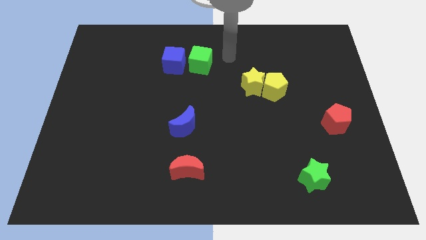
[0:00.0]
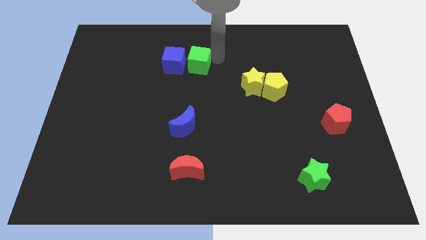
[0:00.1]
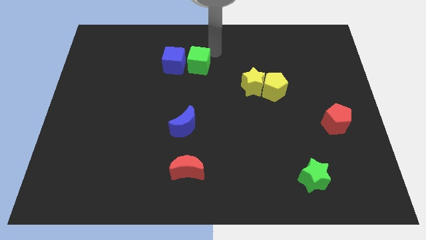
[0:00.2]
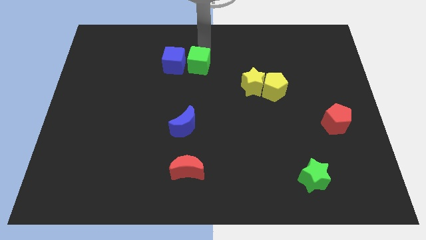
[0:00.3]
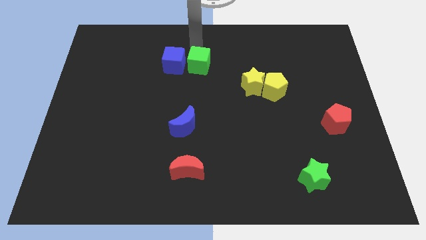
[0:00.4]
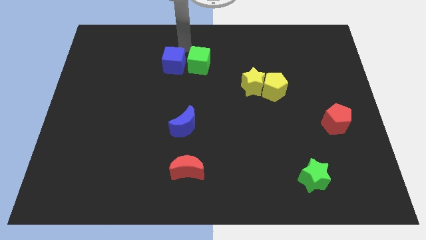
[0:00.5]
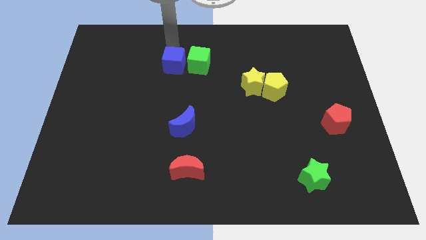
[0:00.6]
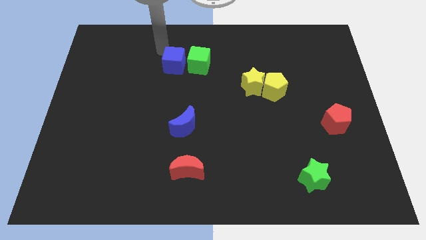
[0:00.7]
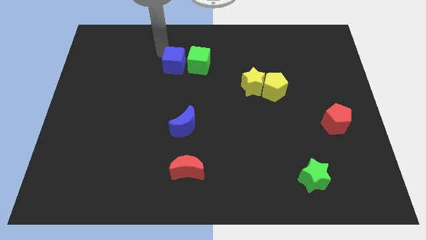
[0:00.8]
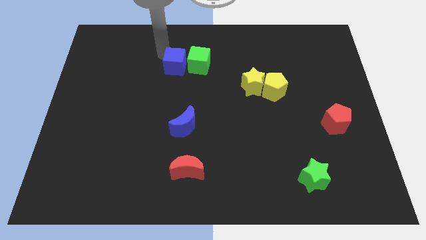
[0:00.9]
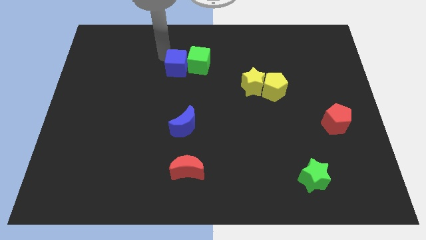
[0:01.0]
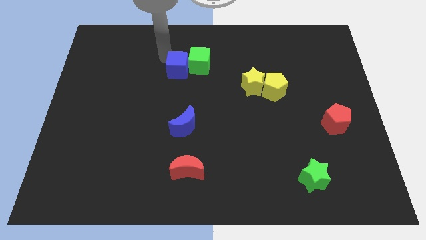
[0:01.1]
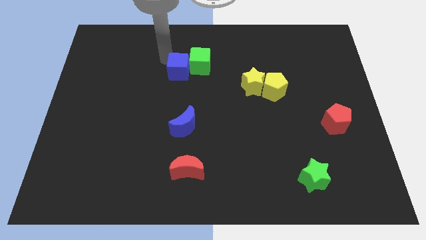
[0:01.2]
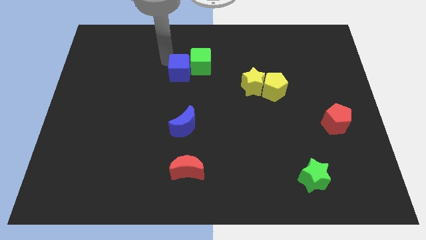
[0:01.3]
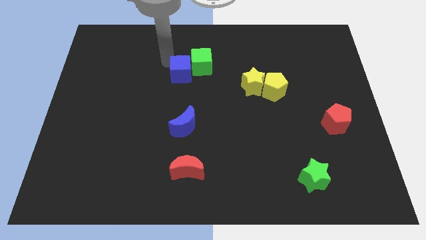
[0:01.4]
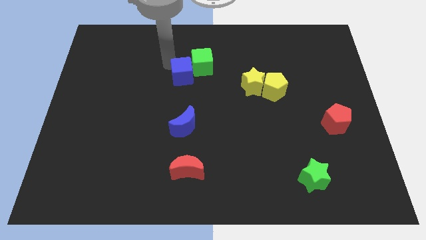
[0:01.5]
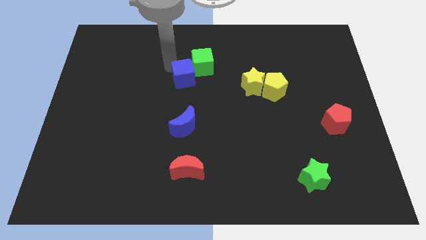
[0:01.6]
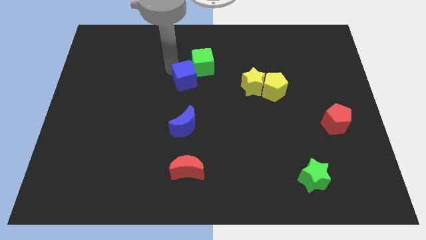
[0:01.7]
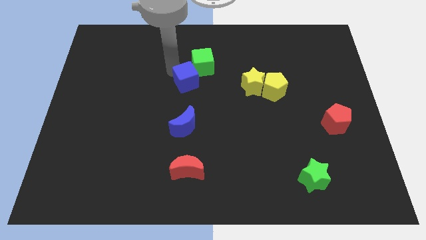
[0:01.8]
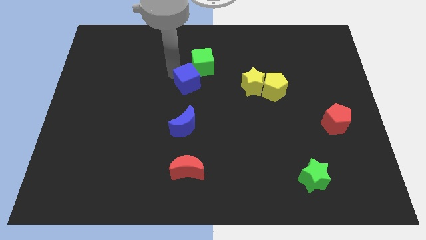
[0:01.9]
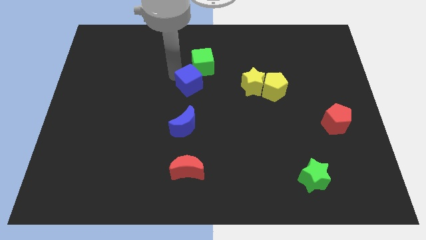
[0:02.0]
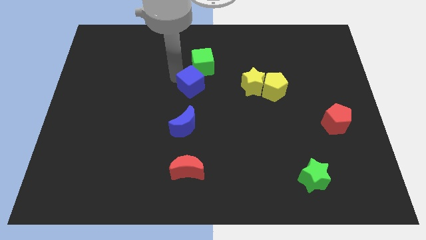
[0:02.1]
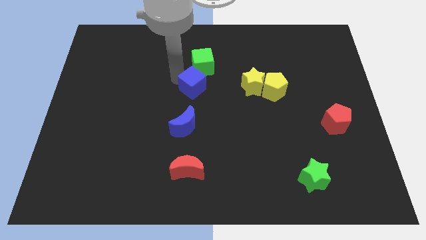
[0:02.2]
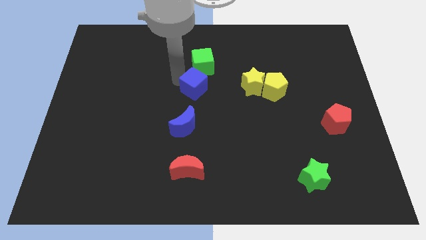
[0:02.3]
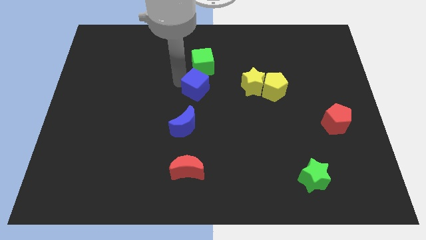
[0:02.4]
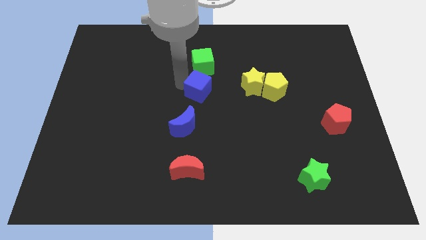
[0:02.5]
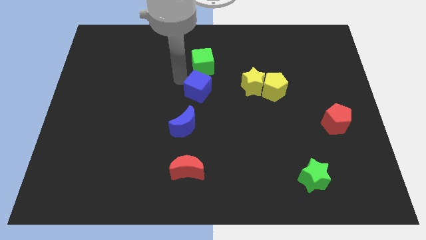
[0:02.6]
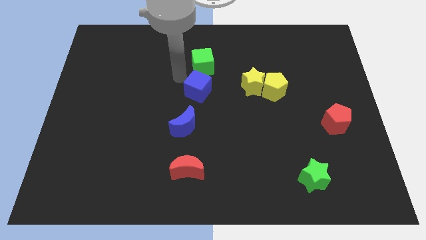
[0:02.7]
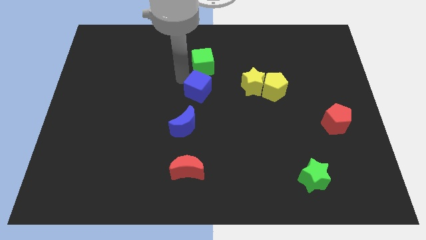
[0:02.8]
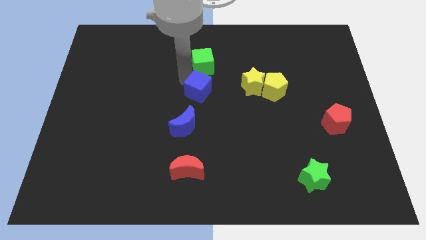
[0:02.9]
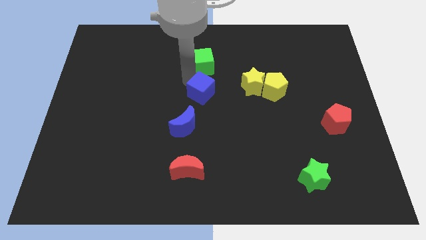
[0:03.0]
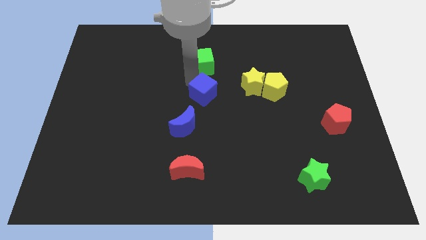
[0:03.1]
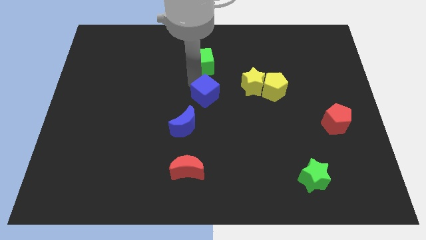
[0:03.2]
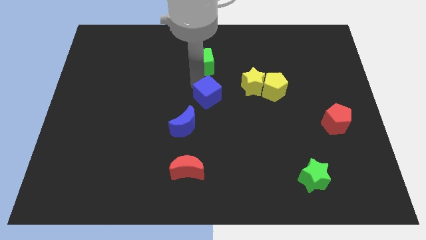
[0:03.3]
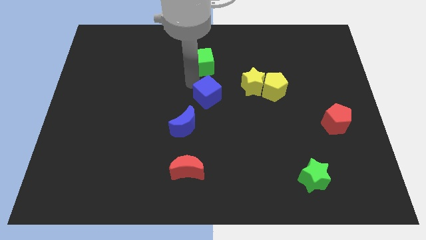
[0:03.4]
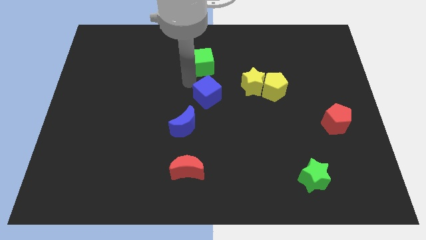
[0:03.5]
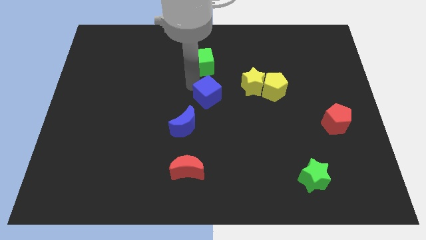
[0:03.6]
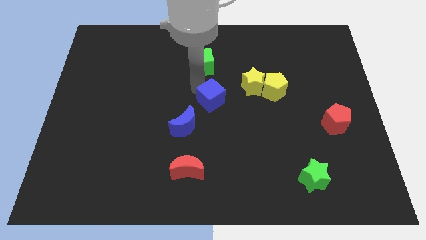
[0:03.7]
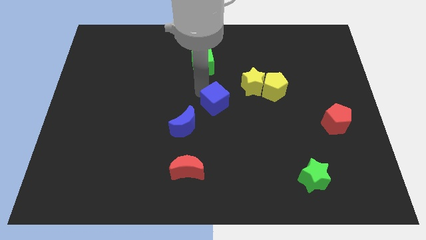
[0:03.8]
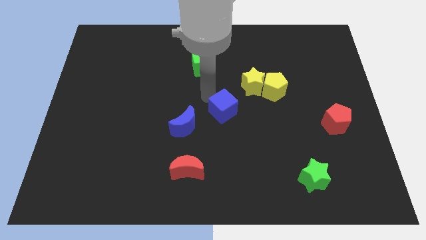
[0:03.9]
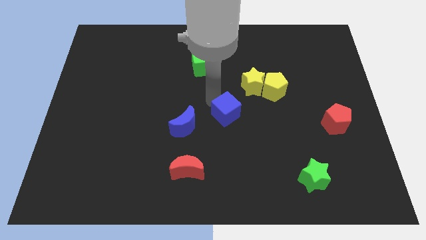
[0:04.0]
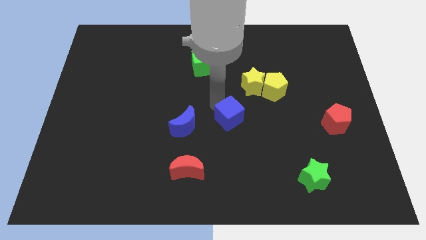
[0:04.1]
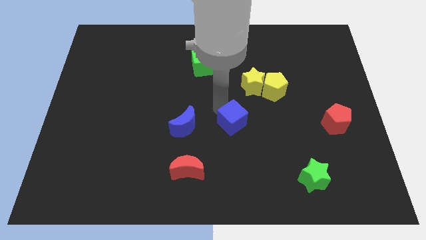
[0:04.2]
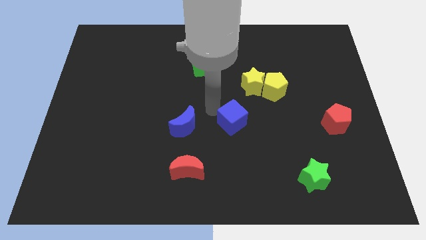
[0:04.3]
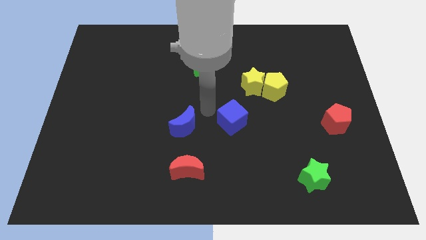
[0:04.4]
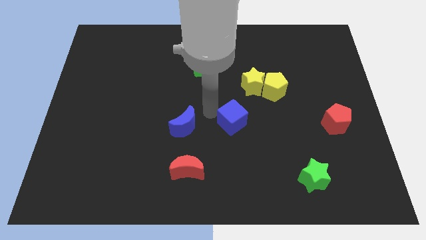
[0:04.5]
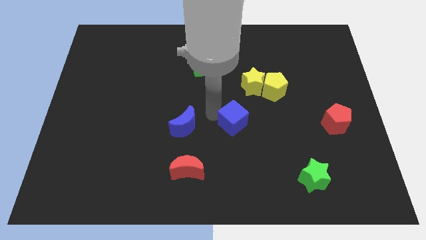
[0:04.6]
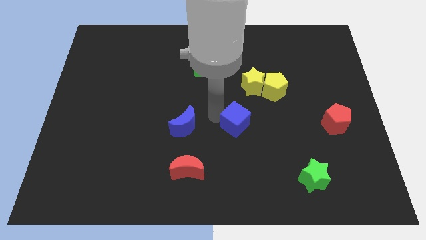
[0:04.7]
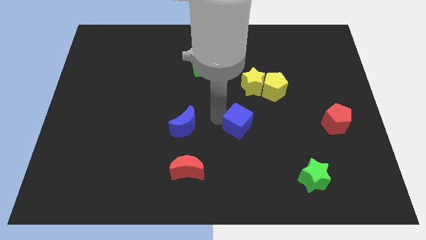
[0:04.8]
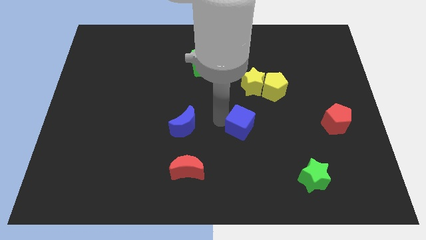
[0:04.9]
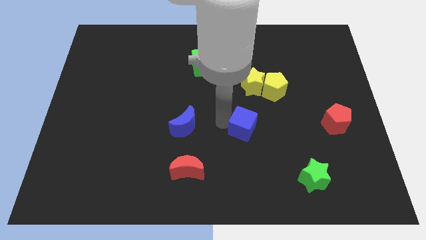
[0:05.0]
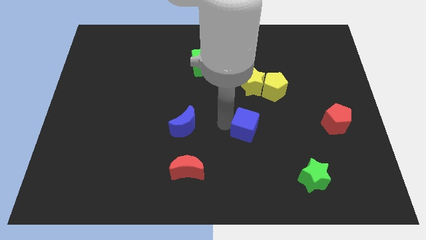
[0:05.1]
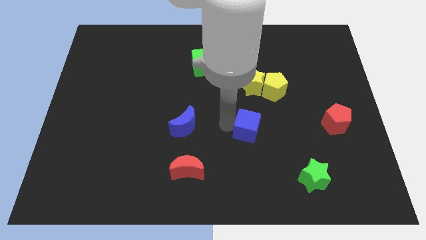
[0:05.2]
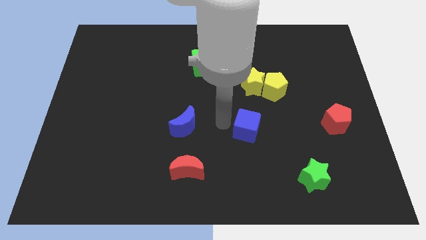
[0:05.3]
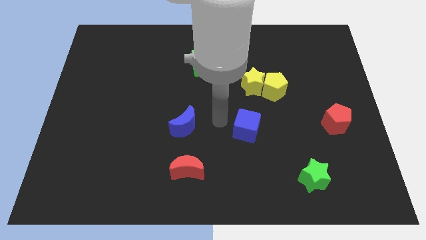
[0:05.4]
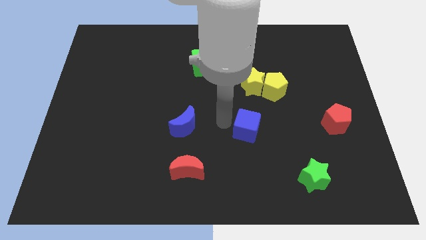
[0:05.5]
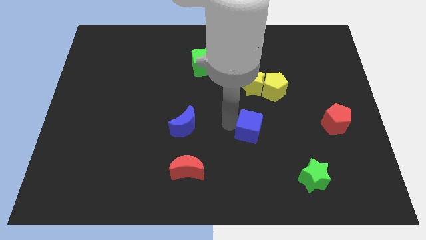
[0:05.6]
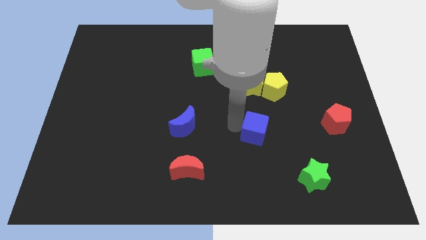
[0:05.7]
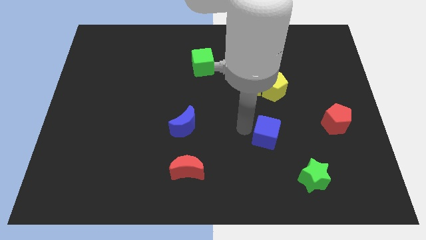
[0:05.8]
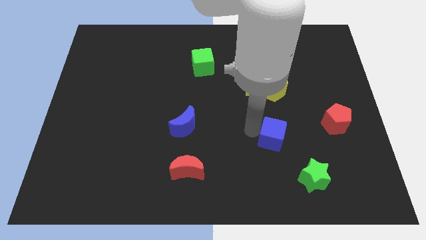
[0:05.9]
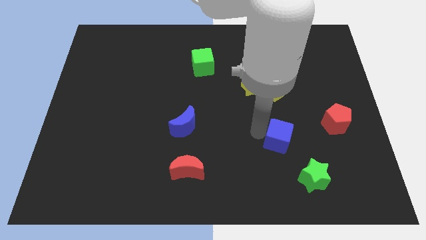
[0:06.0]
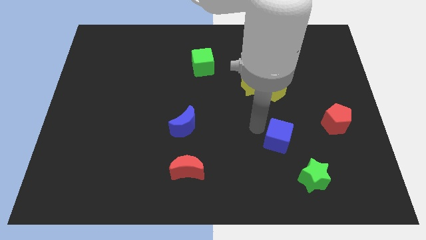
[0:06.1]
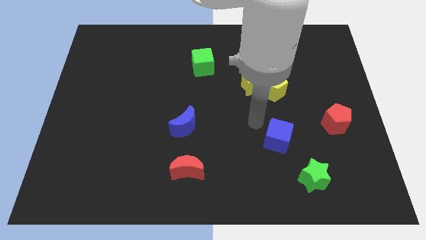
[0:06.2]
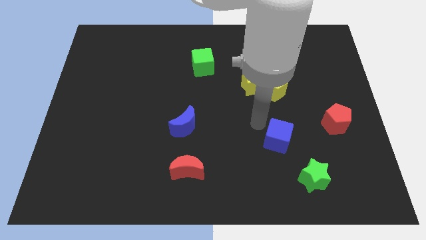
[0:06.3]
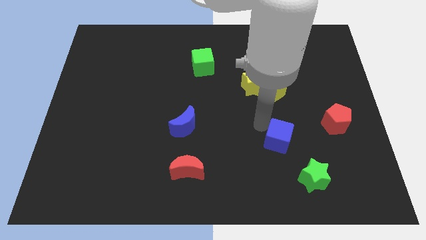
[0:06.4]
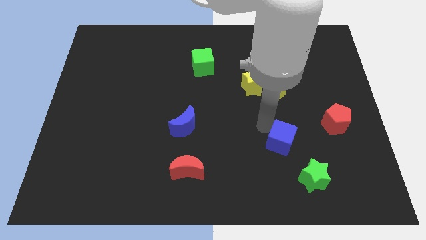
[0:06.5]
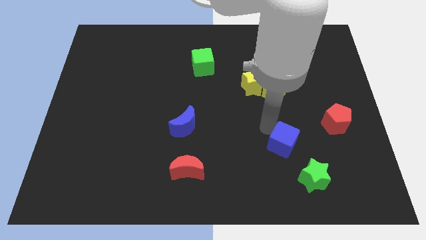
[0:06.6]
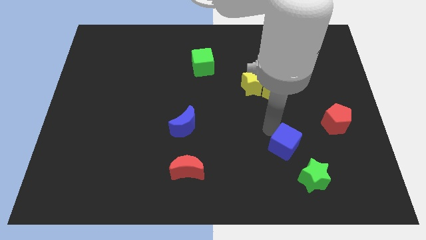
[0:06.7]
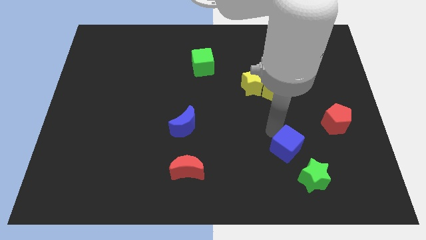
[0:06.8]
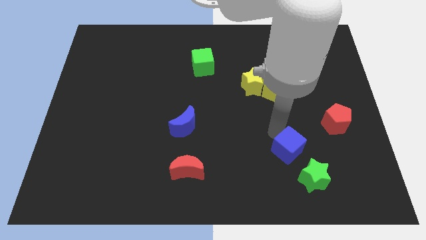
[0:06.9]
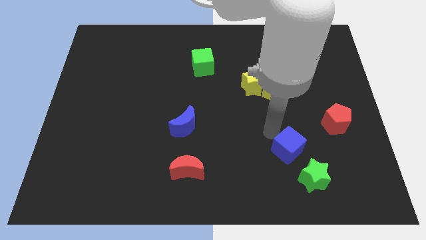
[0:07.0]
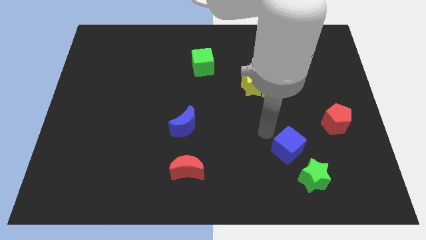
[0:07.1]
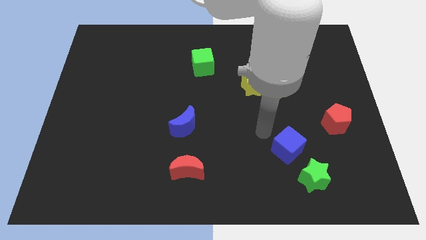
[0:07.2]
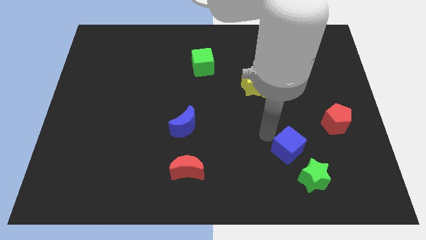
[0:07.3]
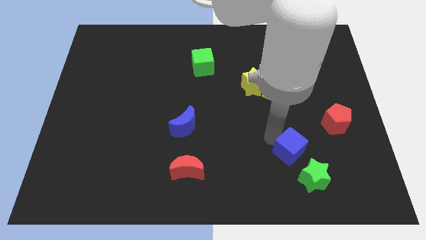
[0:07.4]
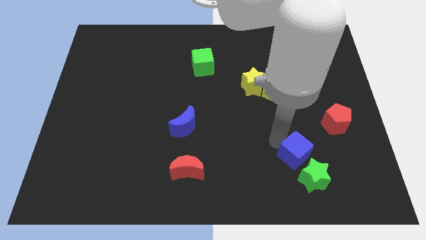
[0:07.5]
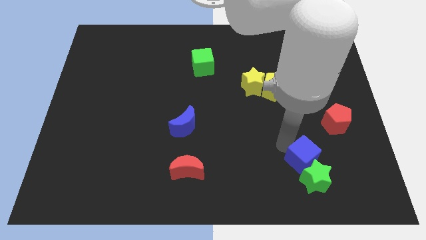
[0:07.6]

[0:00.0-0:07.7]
move the blue cube next to the green star
